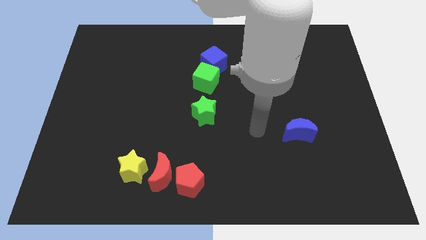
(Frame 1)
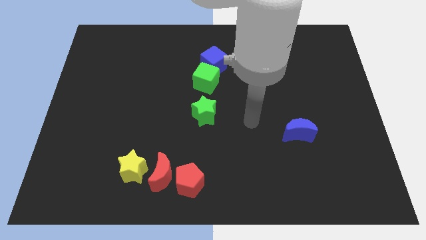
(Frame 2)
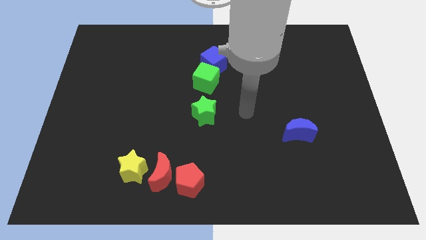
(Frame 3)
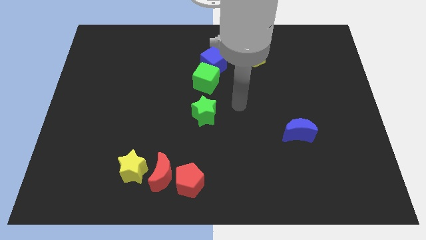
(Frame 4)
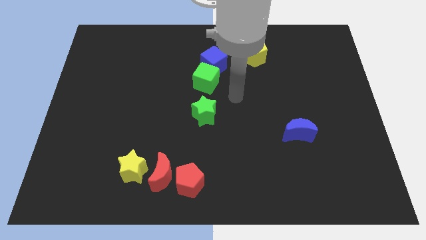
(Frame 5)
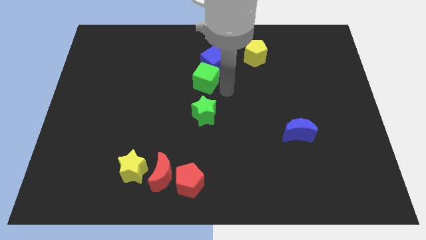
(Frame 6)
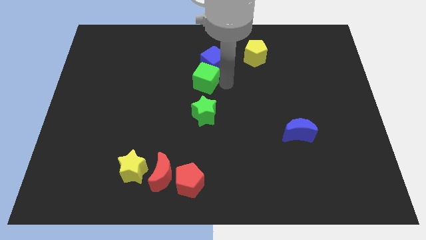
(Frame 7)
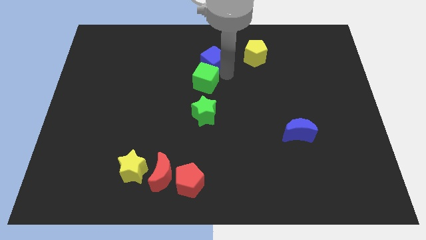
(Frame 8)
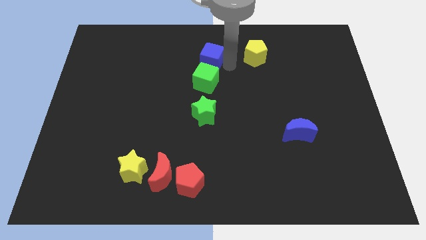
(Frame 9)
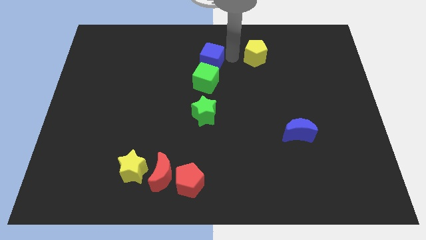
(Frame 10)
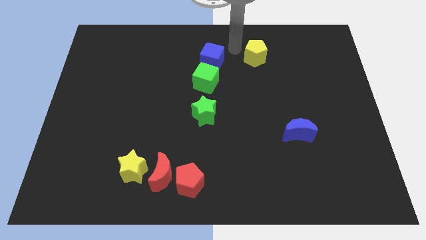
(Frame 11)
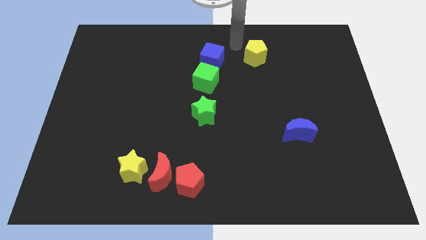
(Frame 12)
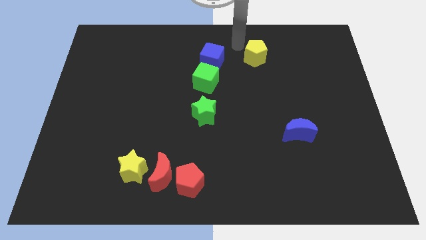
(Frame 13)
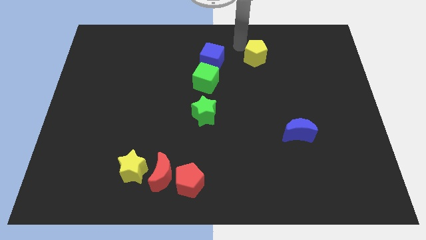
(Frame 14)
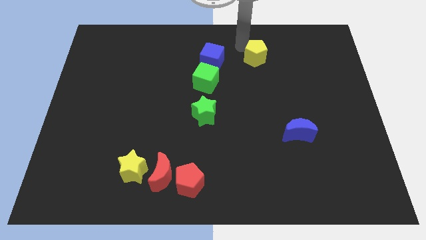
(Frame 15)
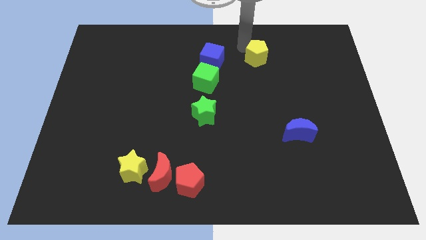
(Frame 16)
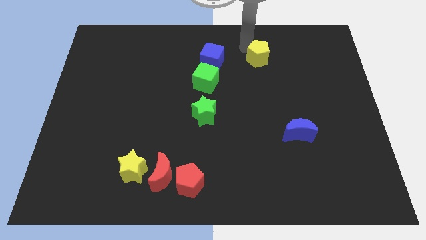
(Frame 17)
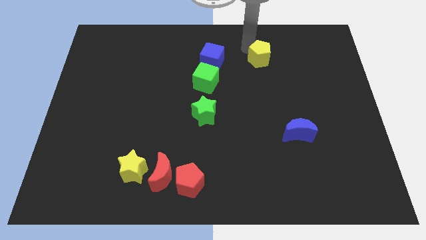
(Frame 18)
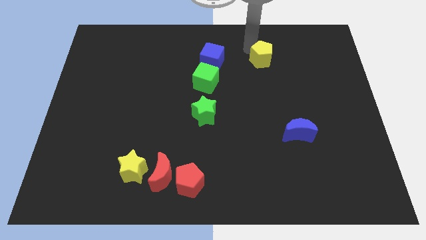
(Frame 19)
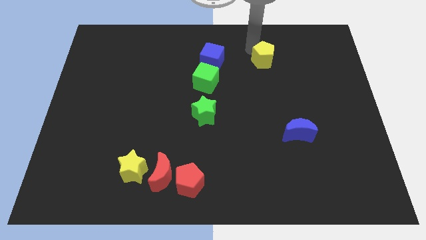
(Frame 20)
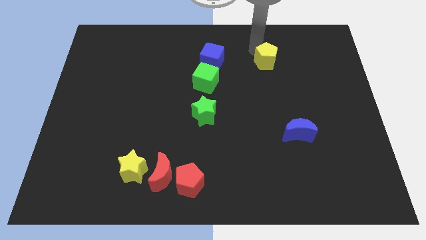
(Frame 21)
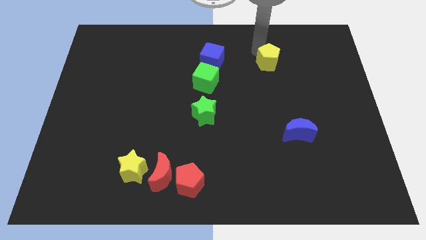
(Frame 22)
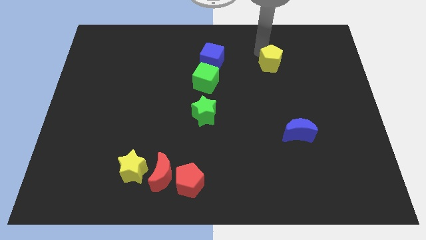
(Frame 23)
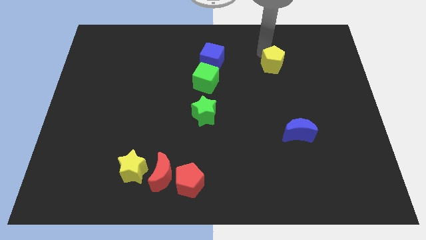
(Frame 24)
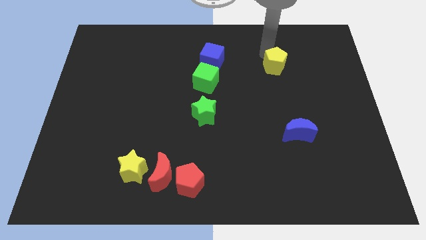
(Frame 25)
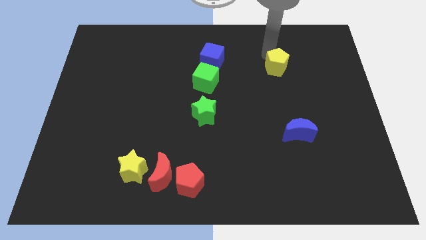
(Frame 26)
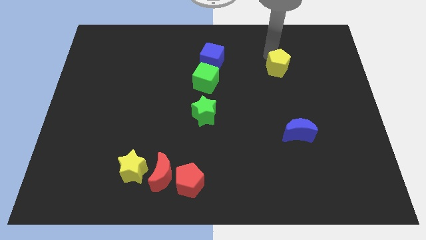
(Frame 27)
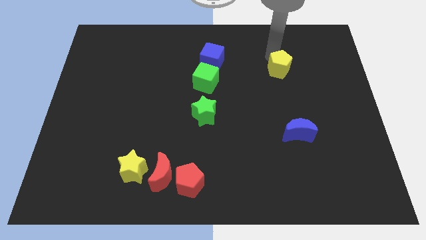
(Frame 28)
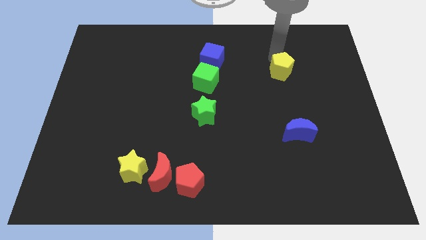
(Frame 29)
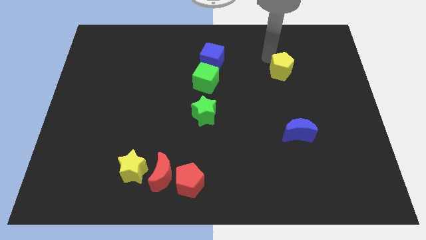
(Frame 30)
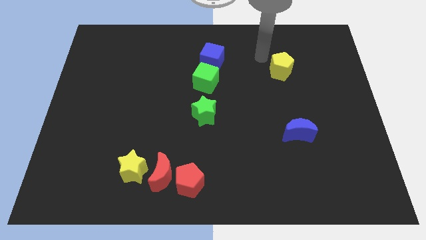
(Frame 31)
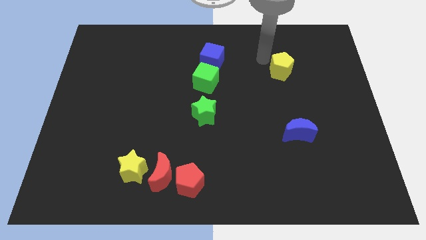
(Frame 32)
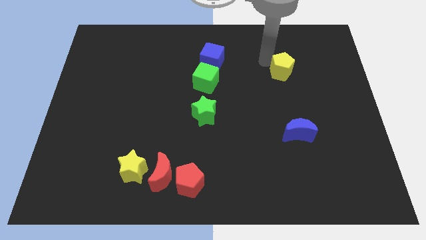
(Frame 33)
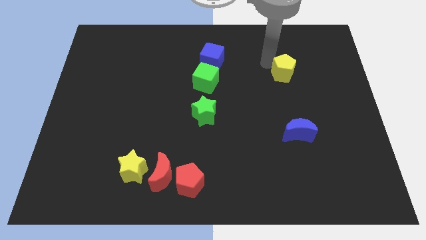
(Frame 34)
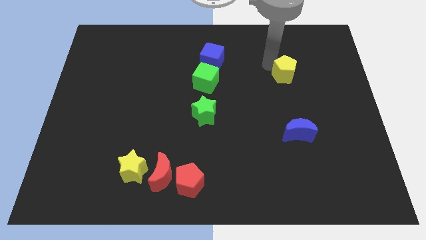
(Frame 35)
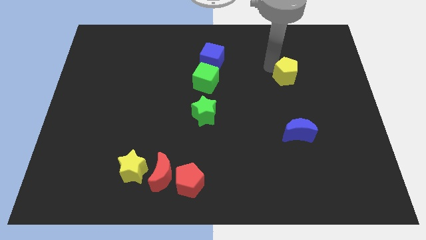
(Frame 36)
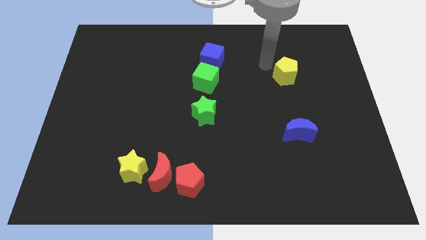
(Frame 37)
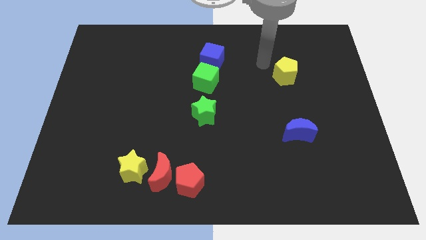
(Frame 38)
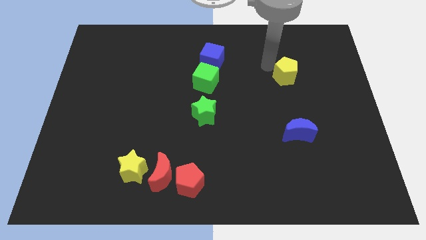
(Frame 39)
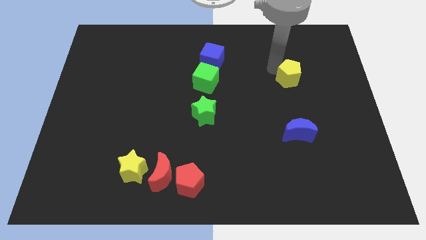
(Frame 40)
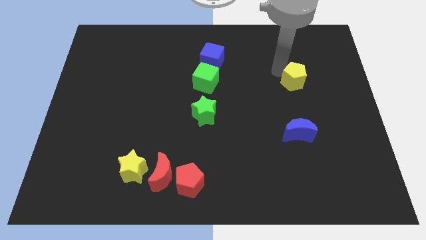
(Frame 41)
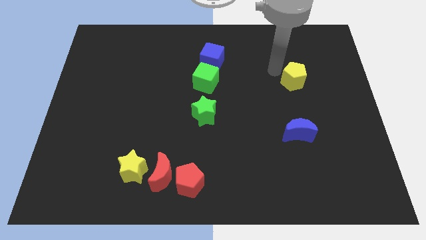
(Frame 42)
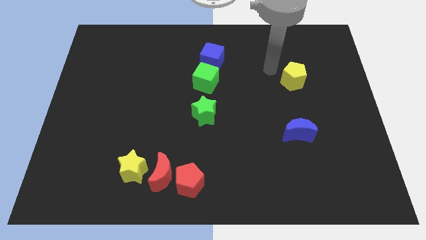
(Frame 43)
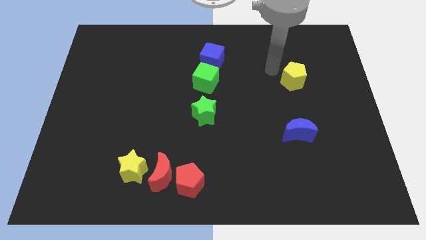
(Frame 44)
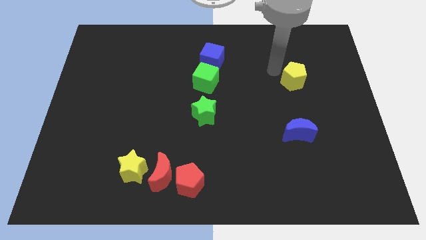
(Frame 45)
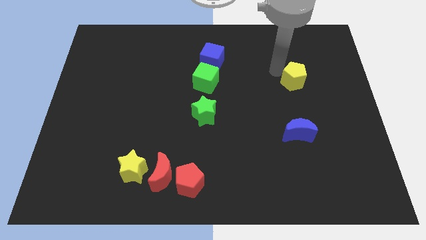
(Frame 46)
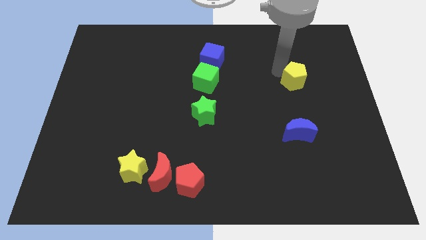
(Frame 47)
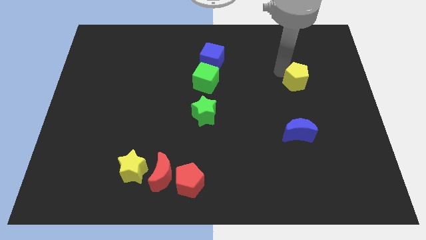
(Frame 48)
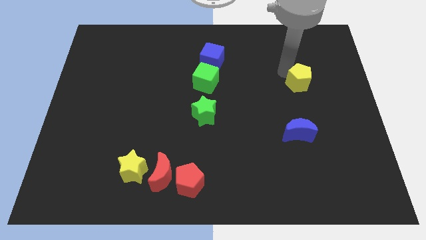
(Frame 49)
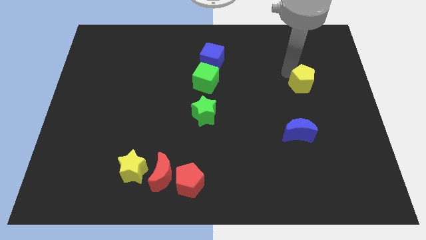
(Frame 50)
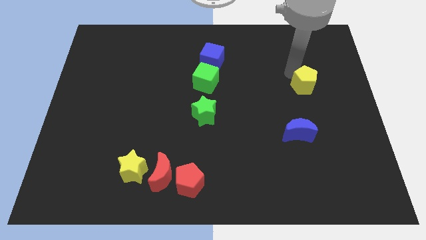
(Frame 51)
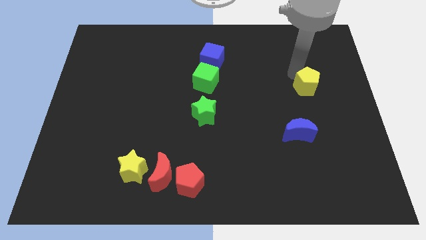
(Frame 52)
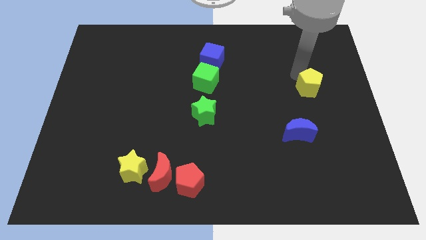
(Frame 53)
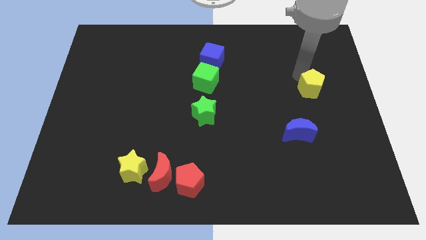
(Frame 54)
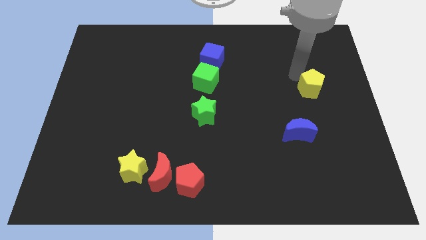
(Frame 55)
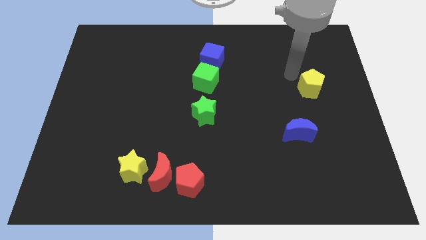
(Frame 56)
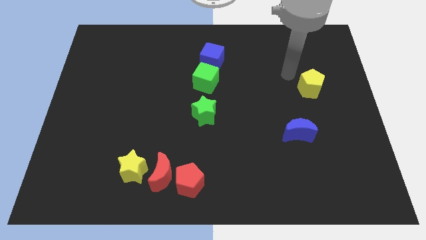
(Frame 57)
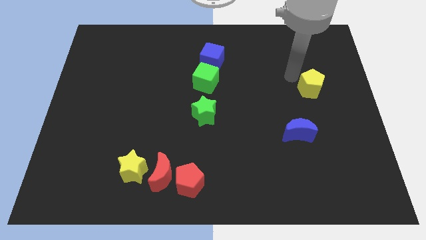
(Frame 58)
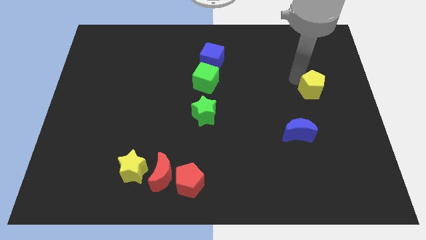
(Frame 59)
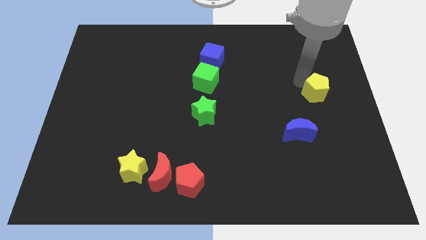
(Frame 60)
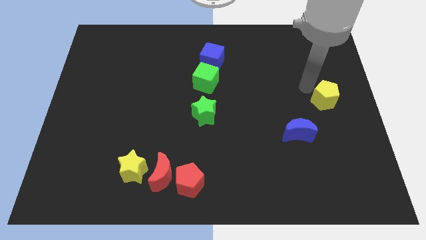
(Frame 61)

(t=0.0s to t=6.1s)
put the yellow pentagon to the right side
